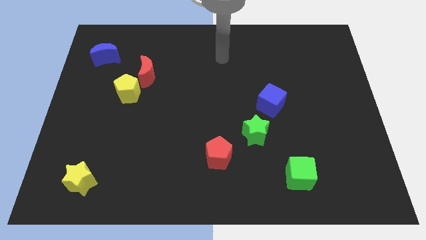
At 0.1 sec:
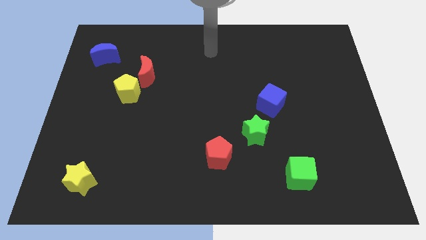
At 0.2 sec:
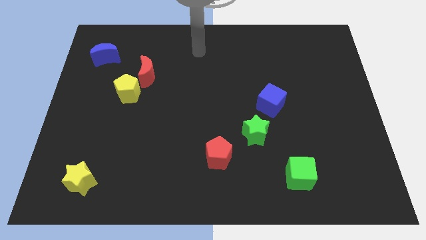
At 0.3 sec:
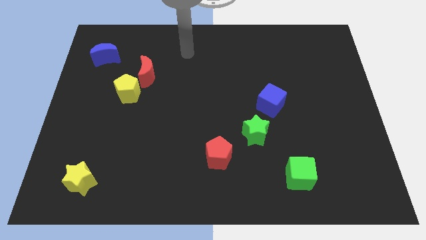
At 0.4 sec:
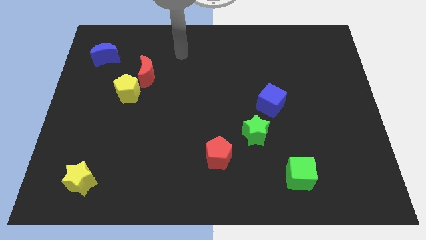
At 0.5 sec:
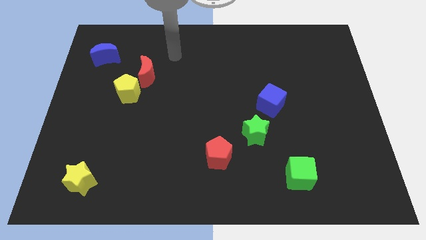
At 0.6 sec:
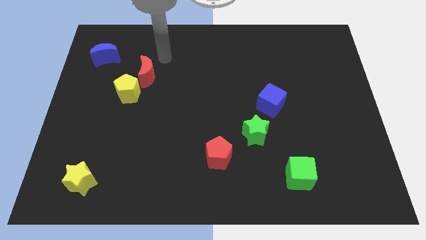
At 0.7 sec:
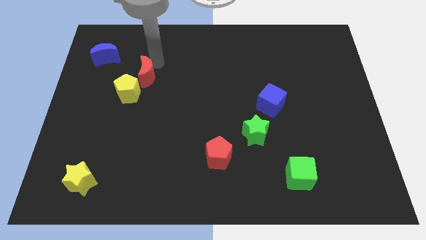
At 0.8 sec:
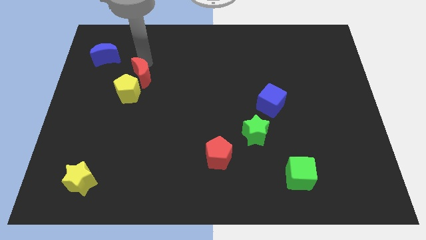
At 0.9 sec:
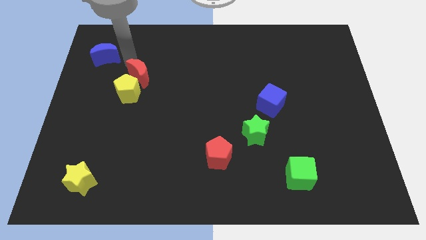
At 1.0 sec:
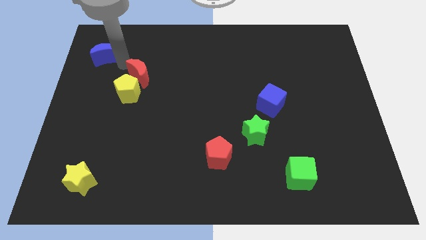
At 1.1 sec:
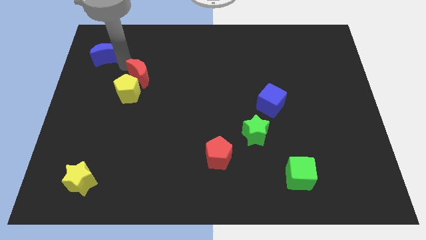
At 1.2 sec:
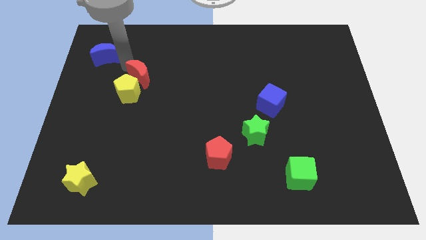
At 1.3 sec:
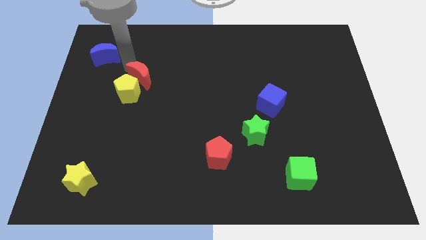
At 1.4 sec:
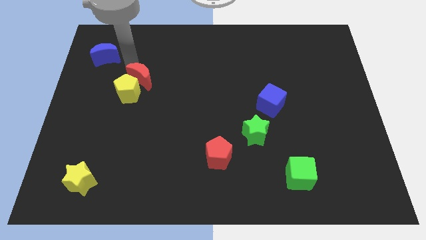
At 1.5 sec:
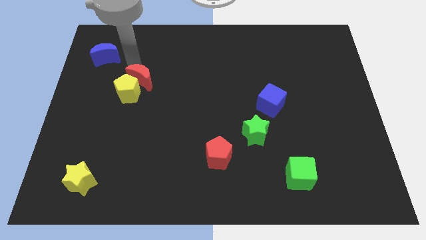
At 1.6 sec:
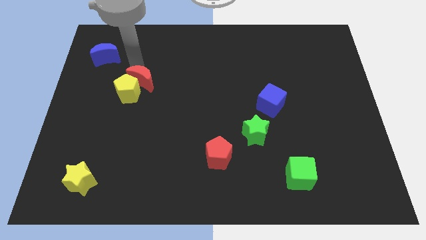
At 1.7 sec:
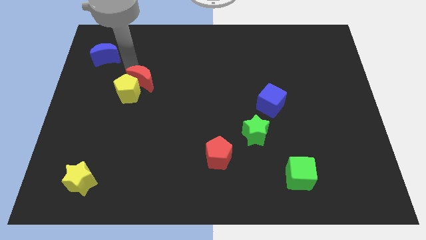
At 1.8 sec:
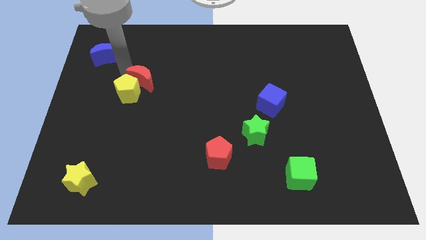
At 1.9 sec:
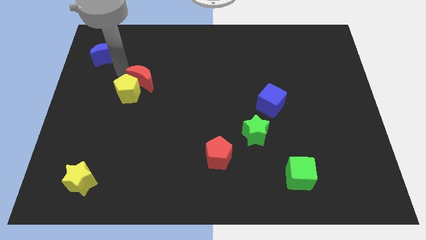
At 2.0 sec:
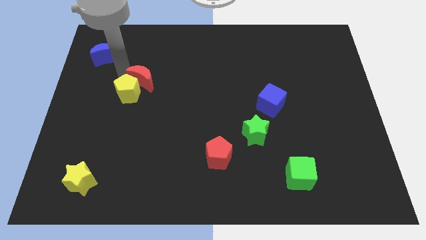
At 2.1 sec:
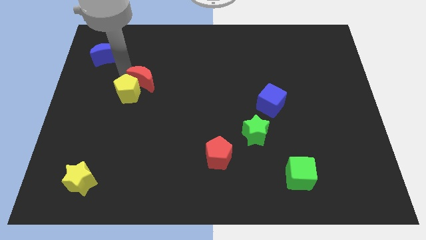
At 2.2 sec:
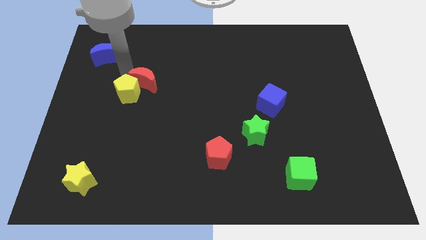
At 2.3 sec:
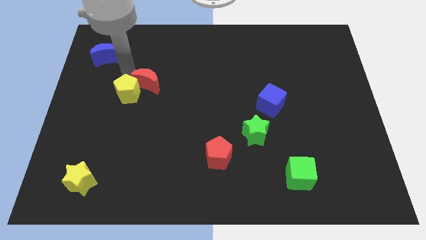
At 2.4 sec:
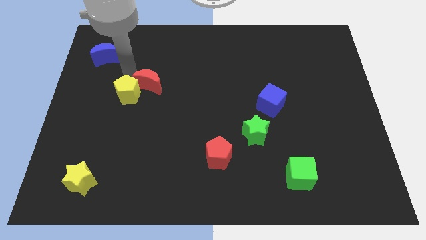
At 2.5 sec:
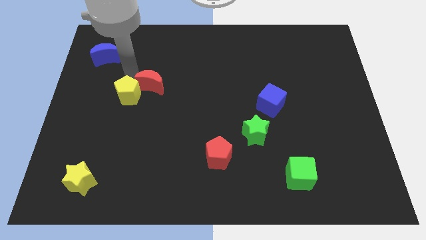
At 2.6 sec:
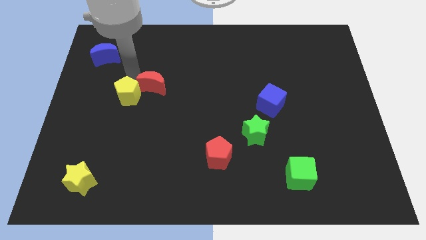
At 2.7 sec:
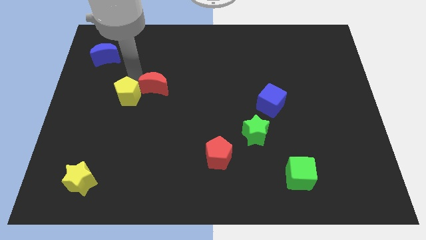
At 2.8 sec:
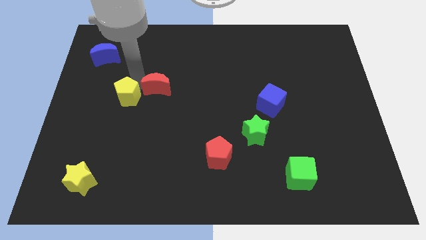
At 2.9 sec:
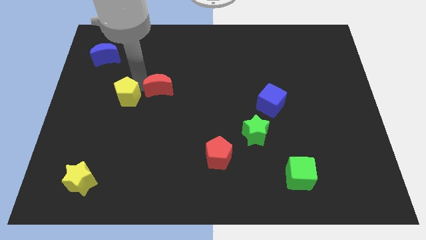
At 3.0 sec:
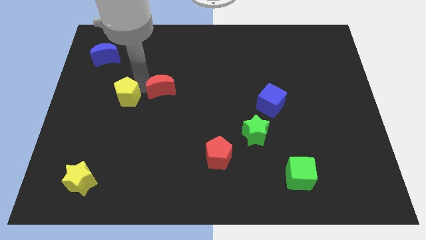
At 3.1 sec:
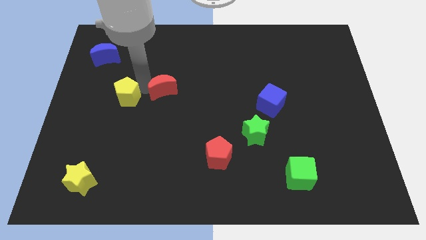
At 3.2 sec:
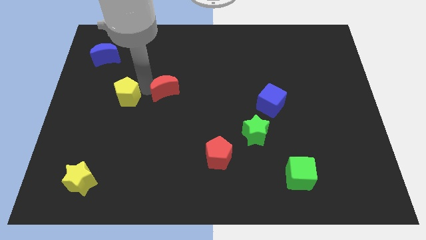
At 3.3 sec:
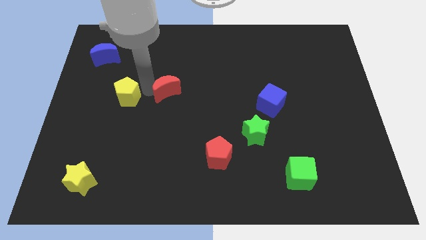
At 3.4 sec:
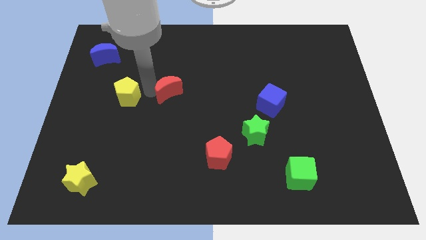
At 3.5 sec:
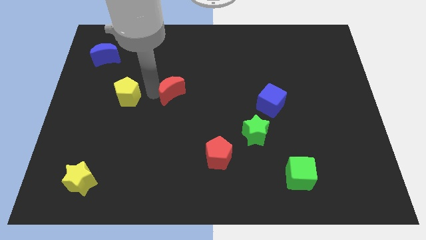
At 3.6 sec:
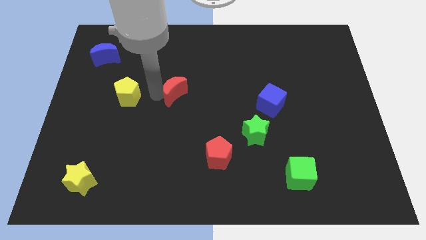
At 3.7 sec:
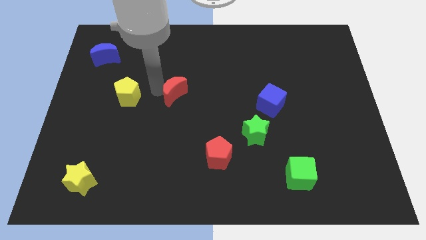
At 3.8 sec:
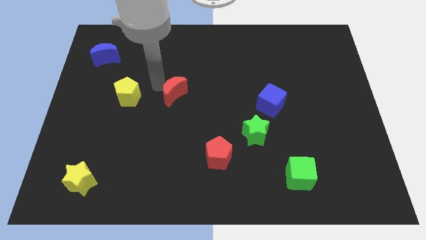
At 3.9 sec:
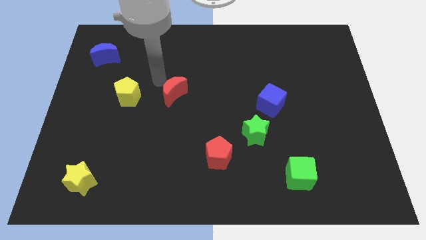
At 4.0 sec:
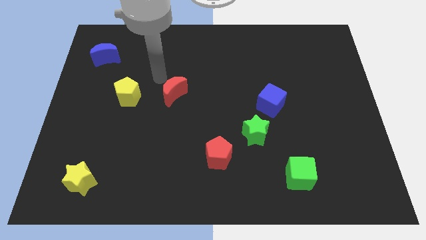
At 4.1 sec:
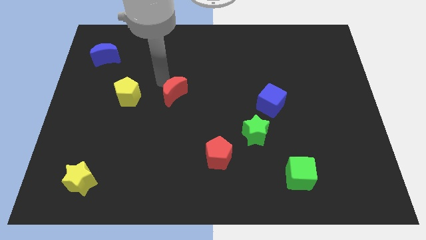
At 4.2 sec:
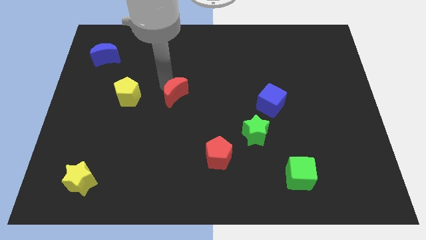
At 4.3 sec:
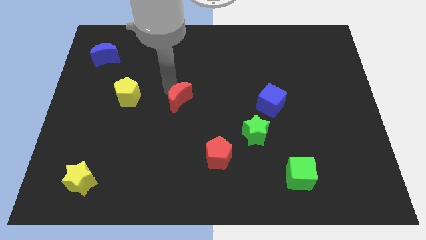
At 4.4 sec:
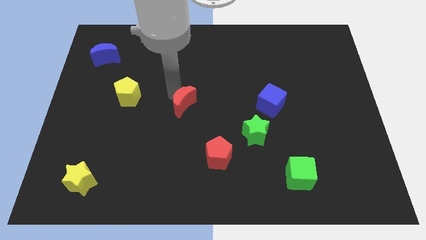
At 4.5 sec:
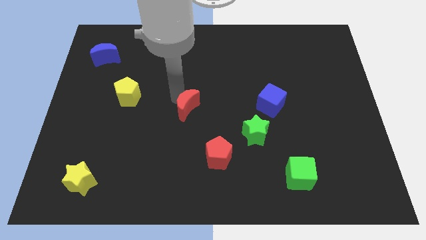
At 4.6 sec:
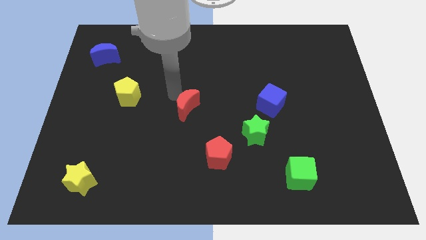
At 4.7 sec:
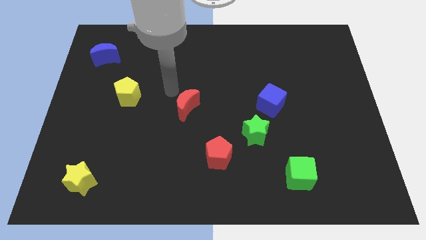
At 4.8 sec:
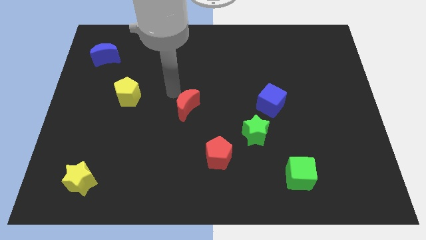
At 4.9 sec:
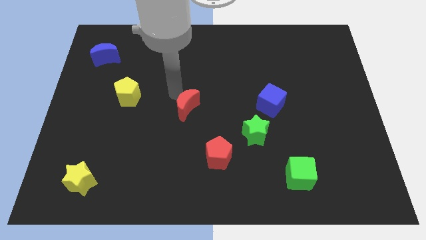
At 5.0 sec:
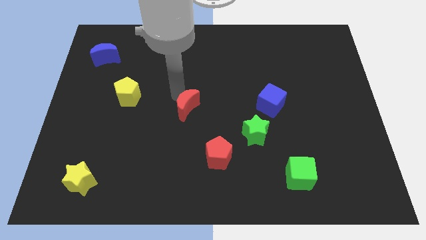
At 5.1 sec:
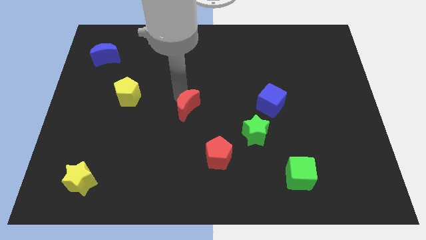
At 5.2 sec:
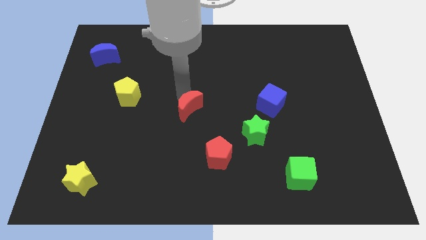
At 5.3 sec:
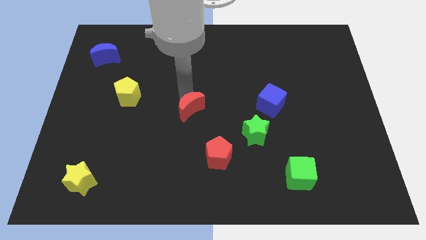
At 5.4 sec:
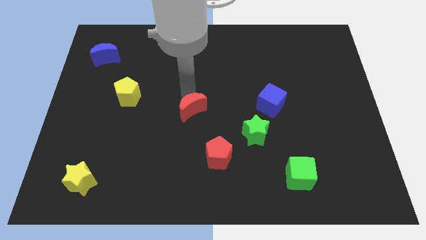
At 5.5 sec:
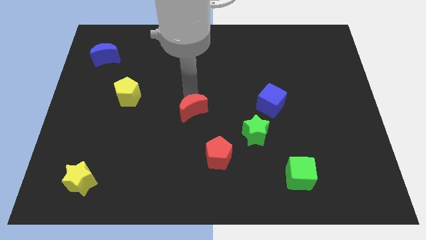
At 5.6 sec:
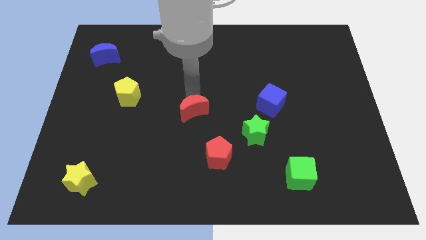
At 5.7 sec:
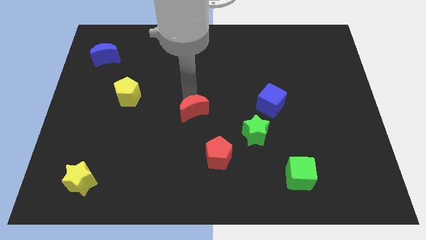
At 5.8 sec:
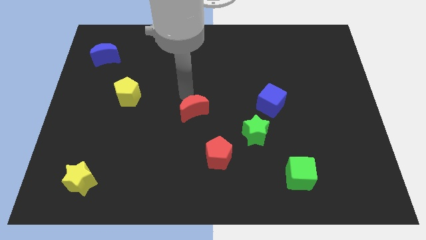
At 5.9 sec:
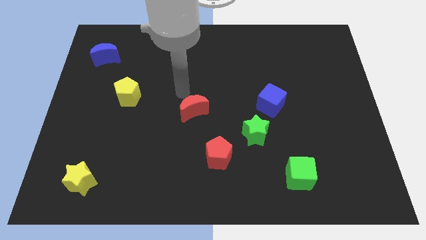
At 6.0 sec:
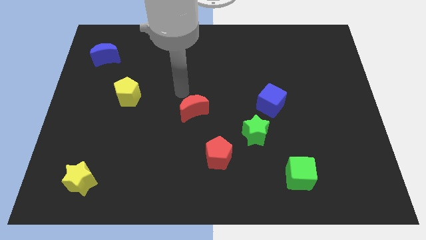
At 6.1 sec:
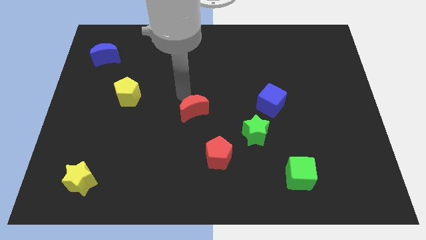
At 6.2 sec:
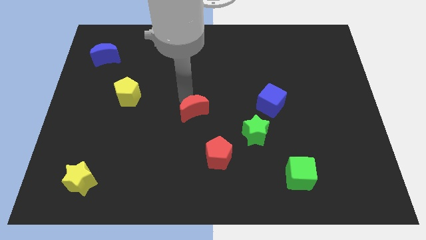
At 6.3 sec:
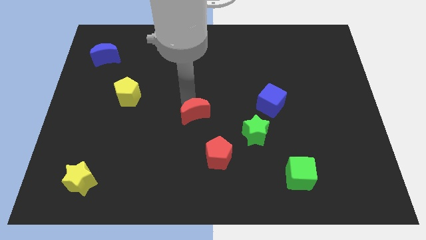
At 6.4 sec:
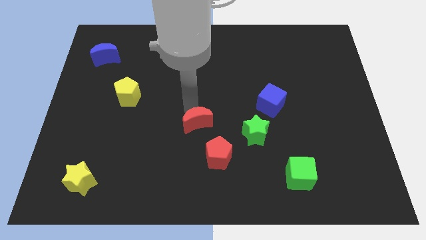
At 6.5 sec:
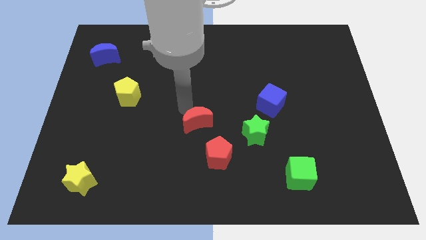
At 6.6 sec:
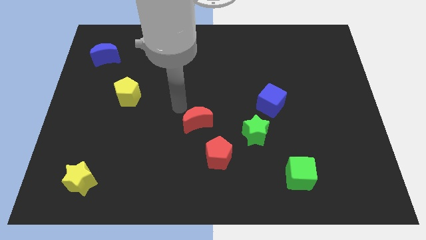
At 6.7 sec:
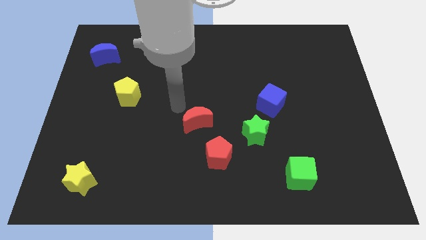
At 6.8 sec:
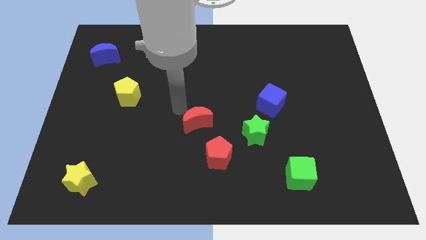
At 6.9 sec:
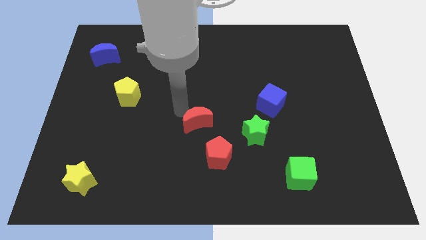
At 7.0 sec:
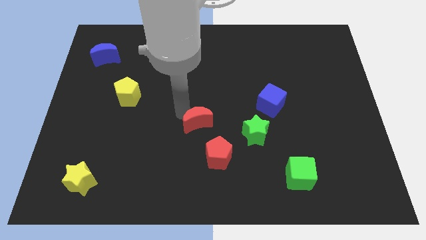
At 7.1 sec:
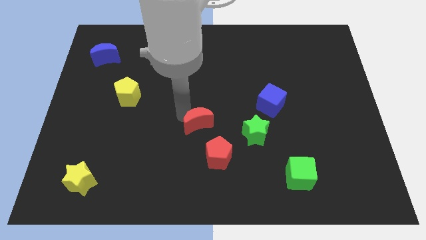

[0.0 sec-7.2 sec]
move the red moon down and right diagonally

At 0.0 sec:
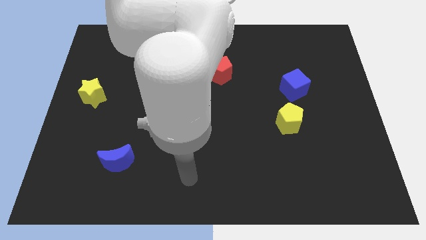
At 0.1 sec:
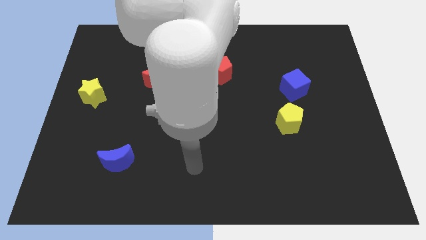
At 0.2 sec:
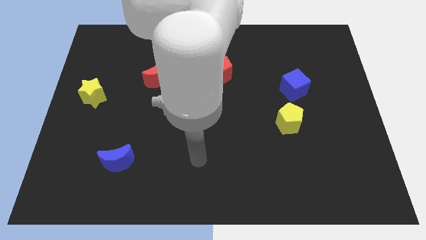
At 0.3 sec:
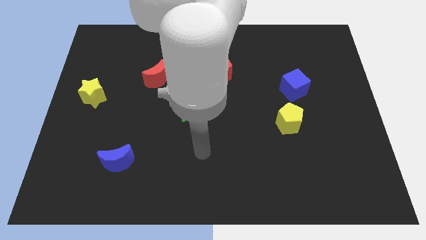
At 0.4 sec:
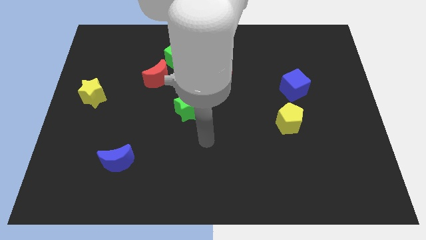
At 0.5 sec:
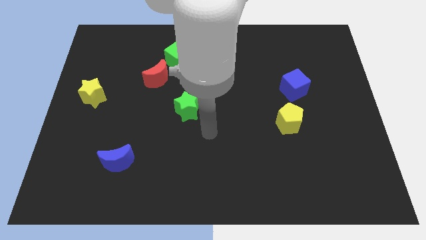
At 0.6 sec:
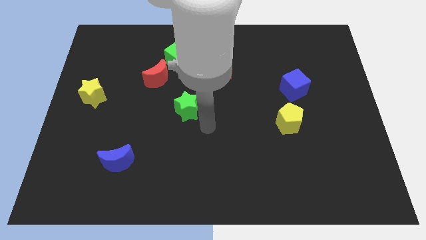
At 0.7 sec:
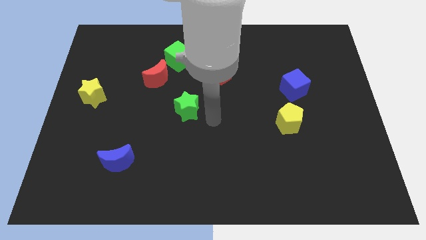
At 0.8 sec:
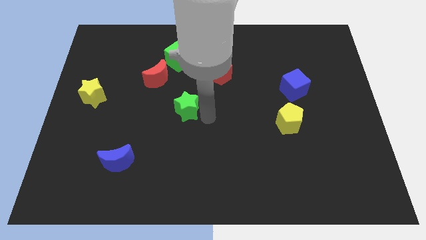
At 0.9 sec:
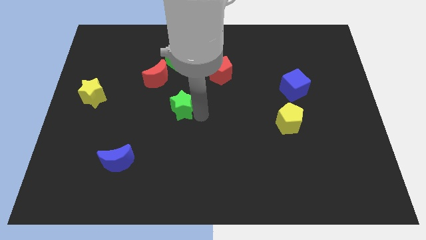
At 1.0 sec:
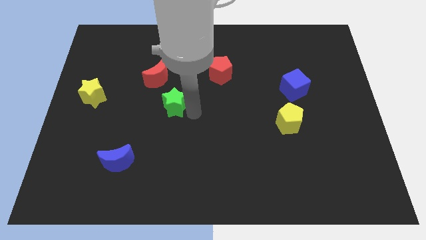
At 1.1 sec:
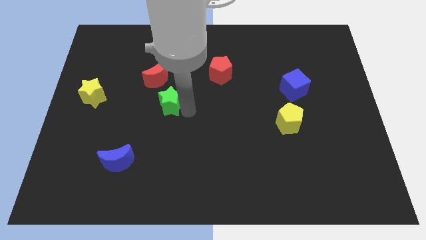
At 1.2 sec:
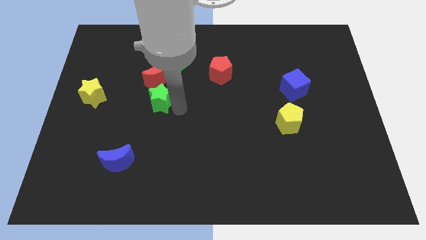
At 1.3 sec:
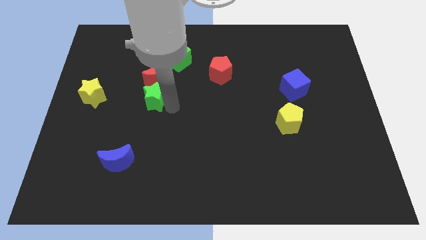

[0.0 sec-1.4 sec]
move the green star upwards and left slightly
